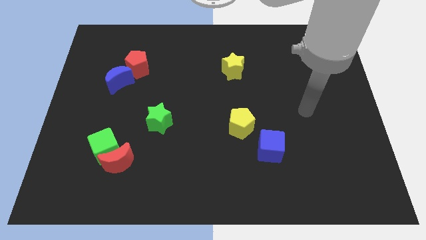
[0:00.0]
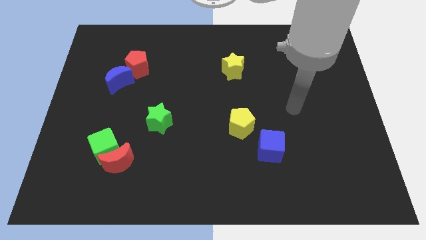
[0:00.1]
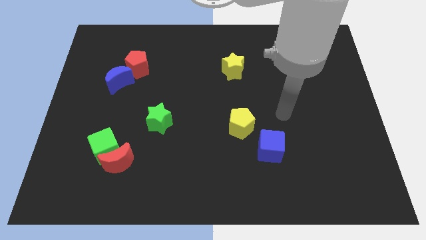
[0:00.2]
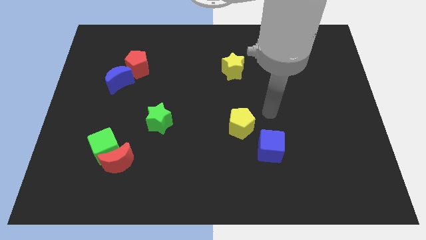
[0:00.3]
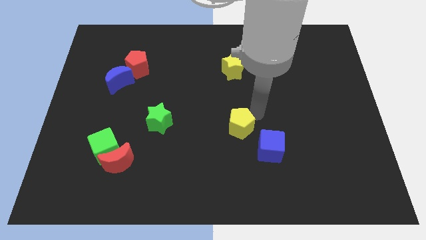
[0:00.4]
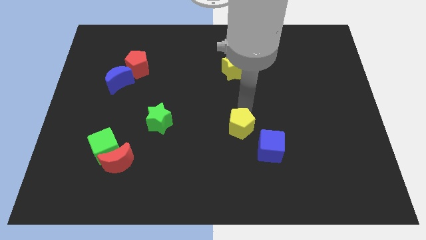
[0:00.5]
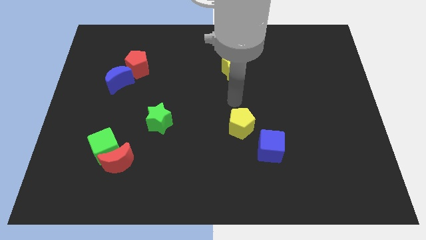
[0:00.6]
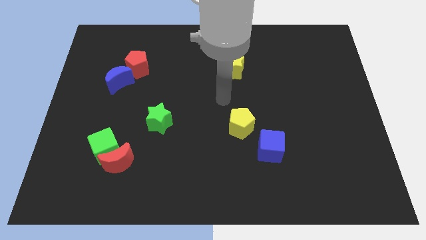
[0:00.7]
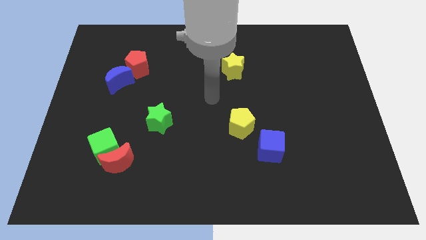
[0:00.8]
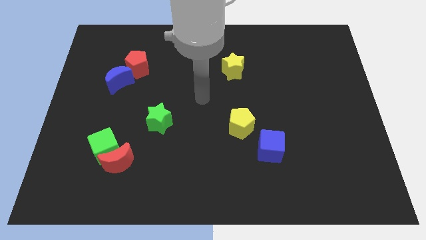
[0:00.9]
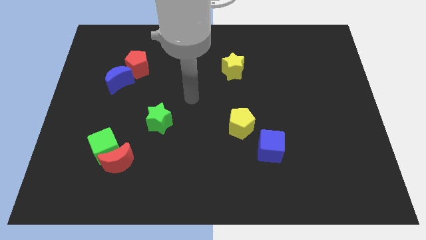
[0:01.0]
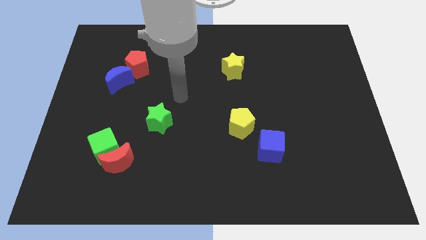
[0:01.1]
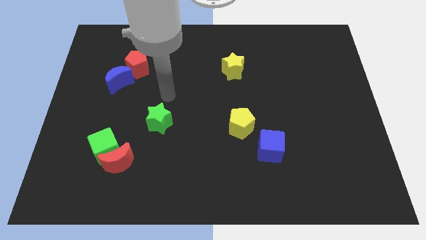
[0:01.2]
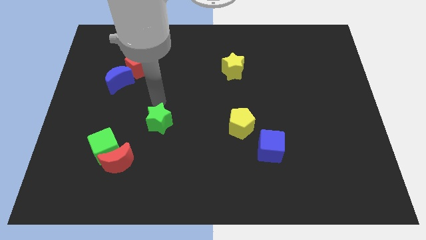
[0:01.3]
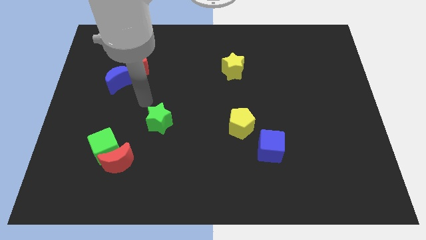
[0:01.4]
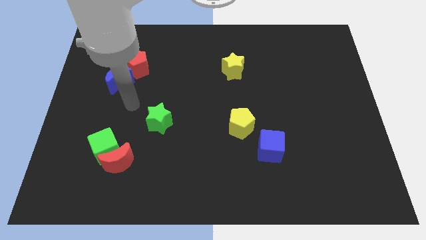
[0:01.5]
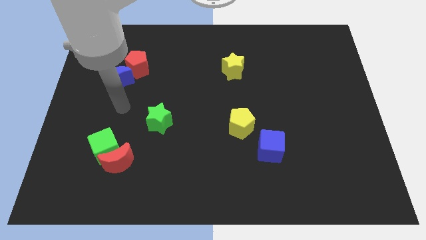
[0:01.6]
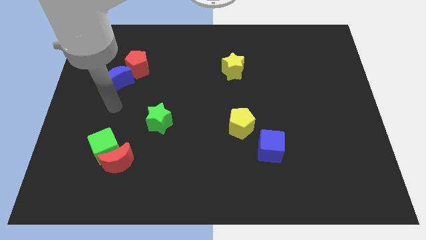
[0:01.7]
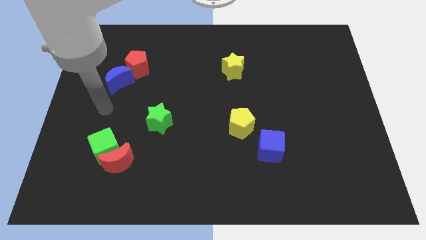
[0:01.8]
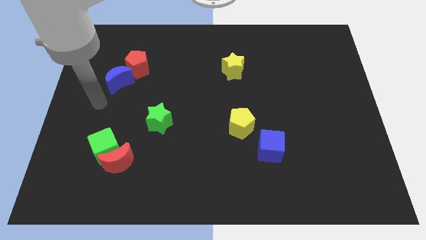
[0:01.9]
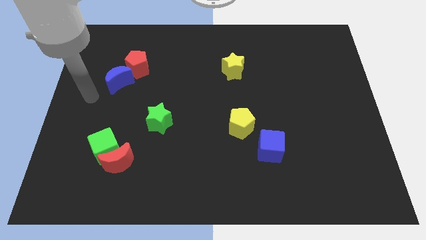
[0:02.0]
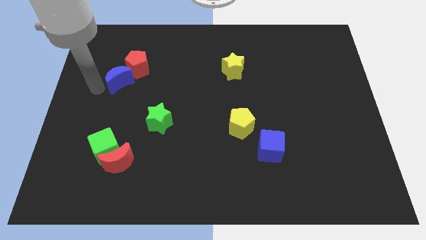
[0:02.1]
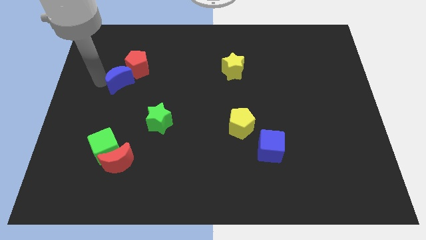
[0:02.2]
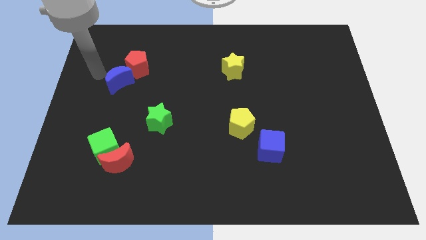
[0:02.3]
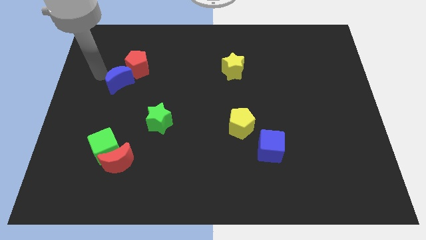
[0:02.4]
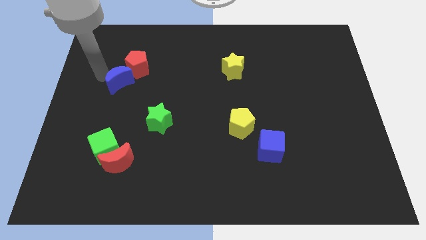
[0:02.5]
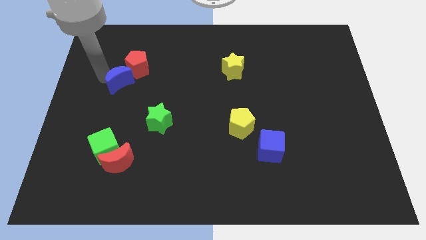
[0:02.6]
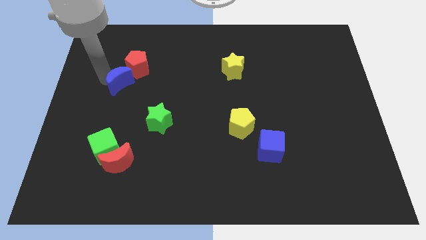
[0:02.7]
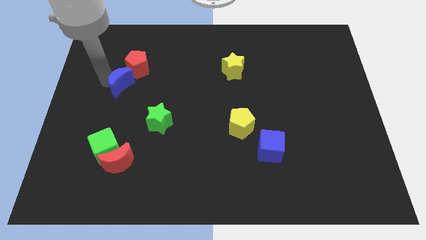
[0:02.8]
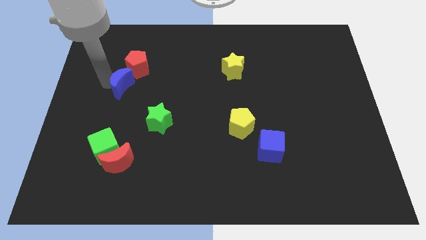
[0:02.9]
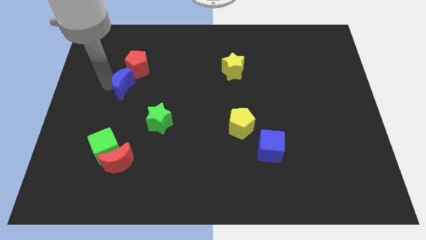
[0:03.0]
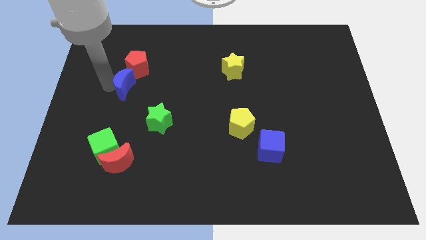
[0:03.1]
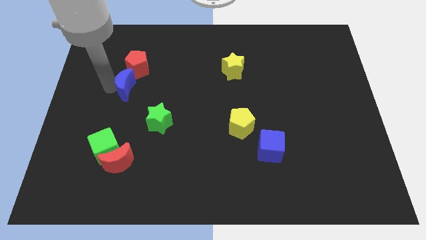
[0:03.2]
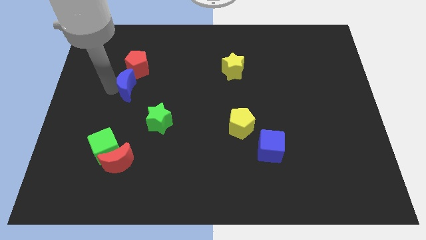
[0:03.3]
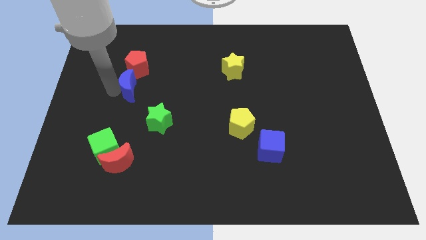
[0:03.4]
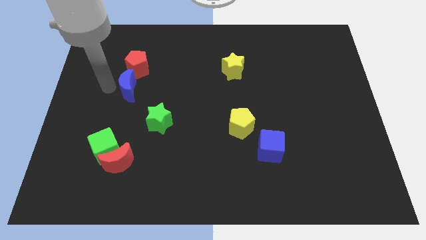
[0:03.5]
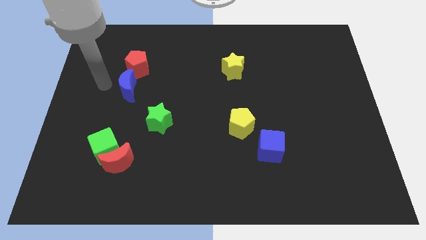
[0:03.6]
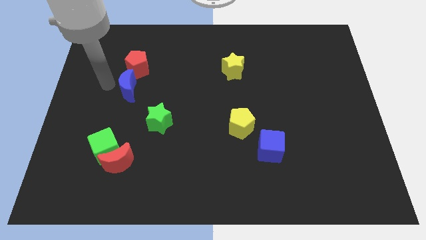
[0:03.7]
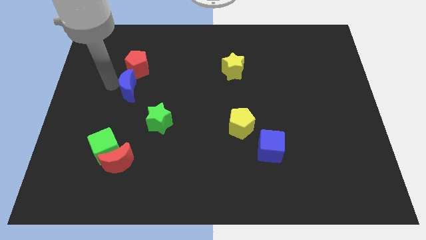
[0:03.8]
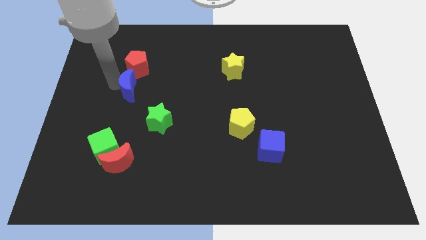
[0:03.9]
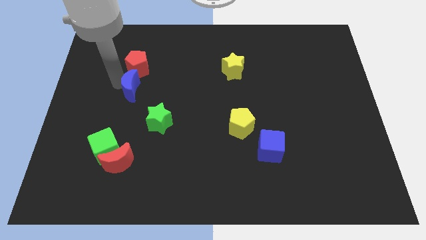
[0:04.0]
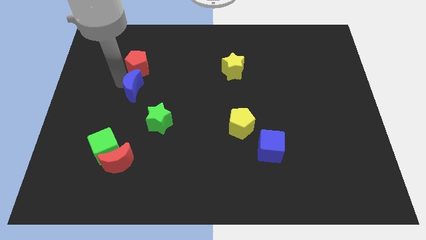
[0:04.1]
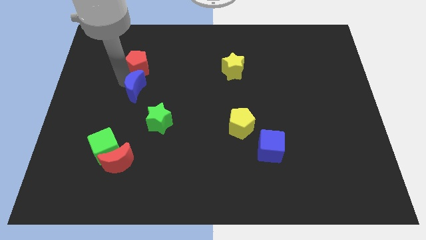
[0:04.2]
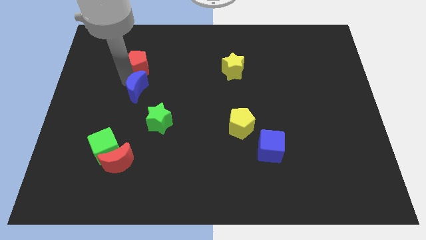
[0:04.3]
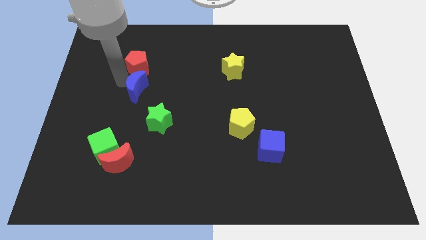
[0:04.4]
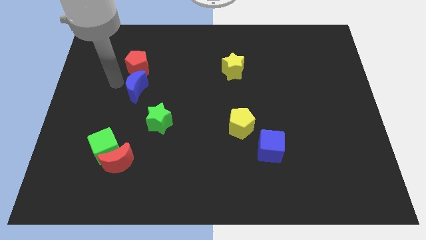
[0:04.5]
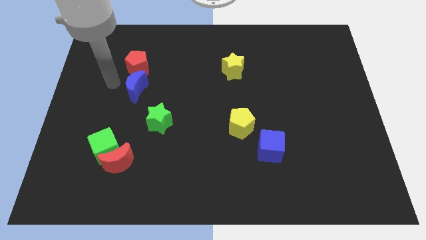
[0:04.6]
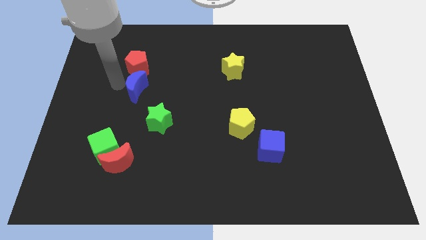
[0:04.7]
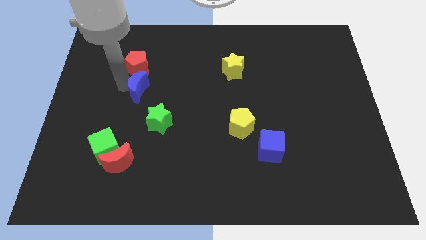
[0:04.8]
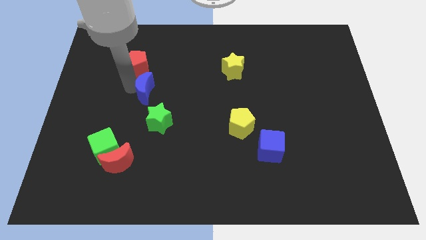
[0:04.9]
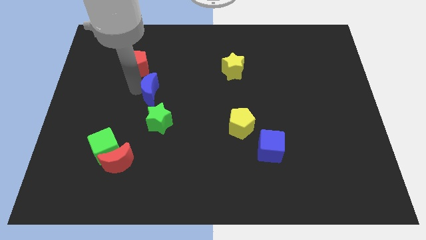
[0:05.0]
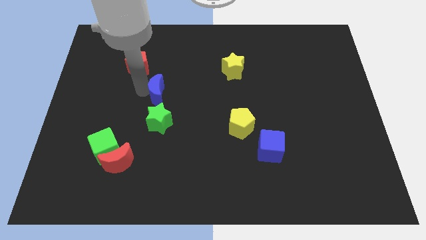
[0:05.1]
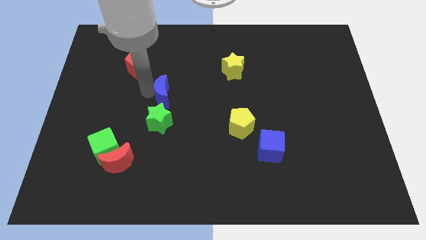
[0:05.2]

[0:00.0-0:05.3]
move the blue moon to the center
